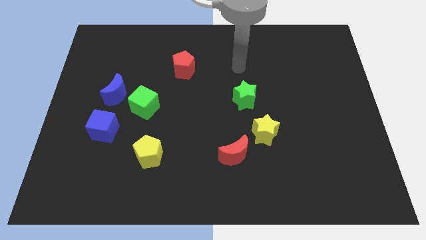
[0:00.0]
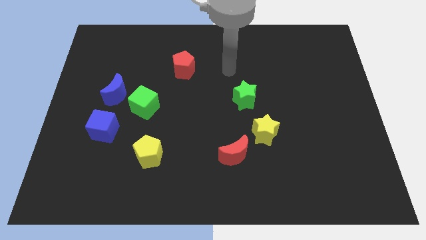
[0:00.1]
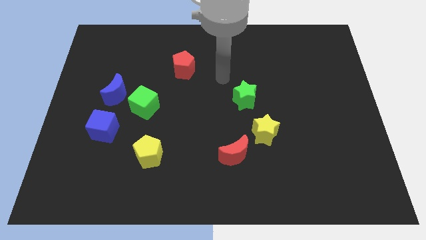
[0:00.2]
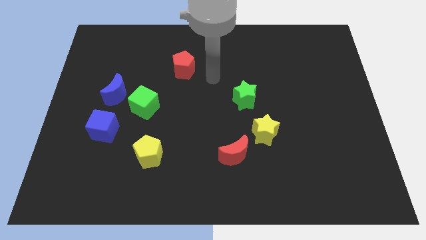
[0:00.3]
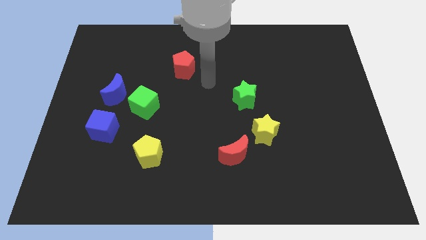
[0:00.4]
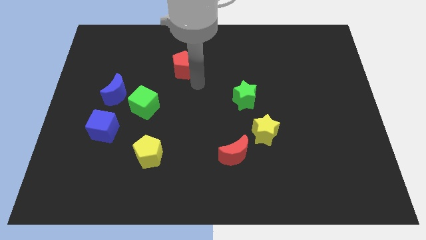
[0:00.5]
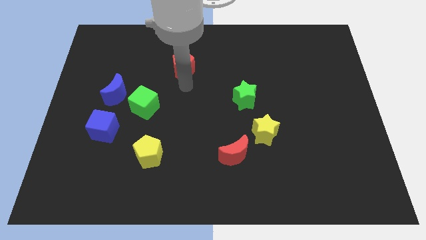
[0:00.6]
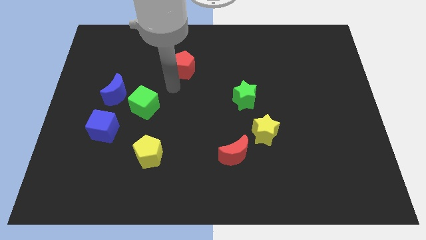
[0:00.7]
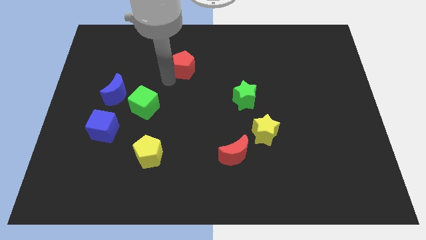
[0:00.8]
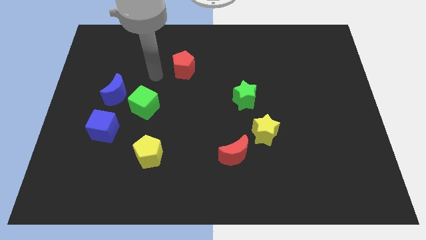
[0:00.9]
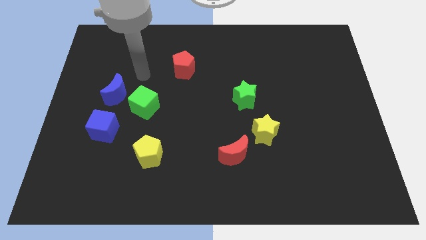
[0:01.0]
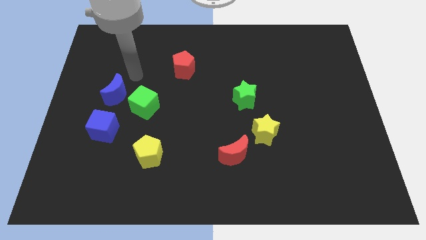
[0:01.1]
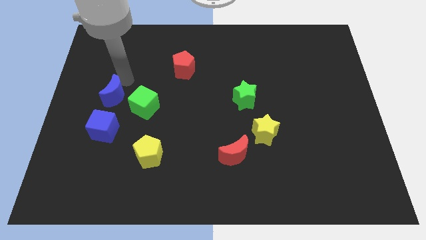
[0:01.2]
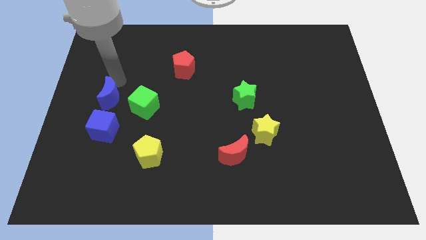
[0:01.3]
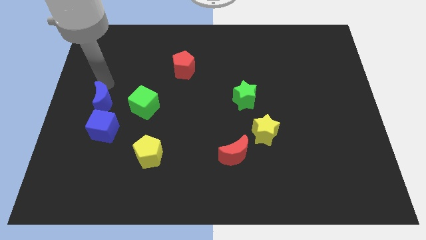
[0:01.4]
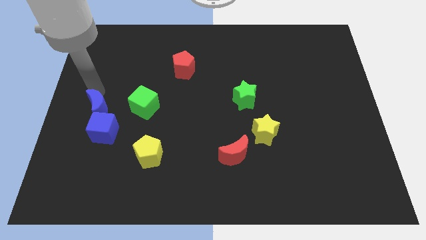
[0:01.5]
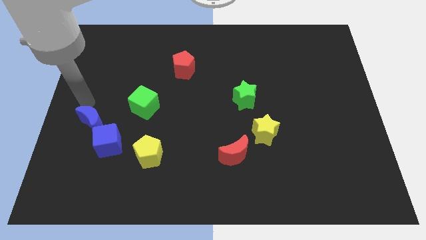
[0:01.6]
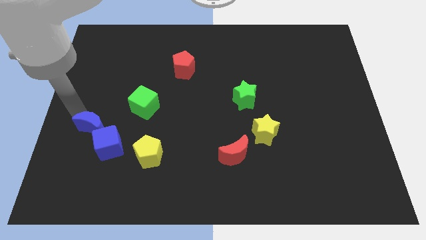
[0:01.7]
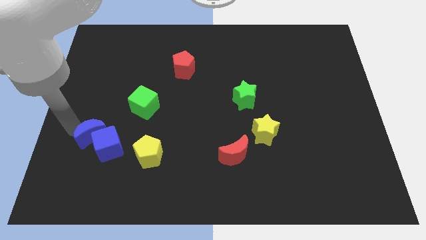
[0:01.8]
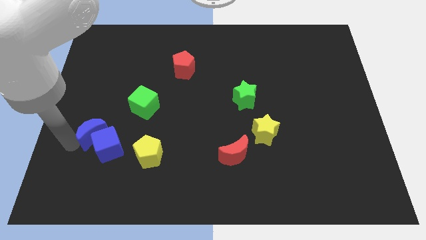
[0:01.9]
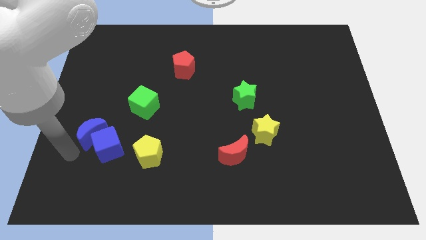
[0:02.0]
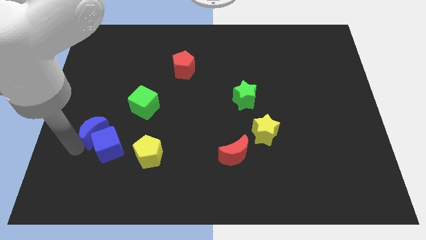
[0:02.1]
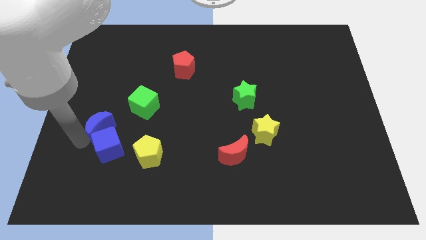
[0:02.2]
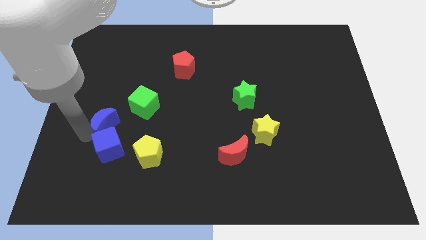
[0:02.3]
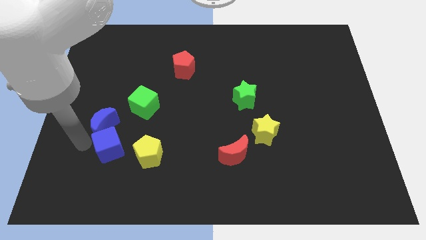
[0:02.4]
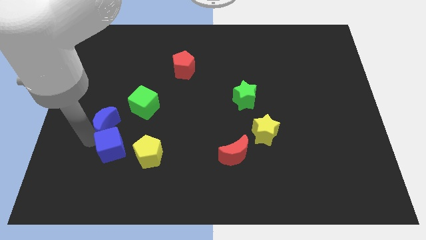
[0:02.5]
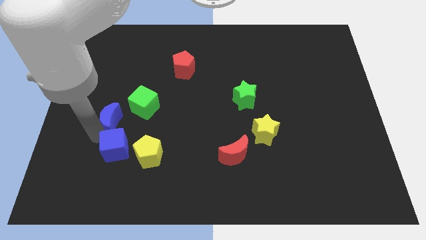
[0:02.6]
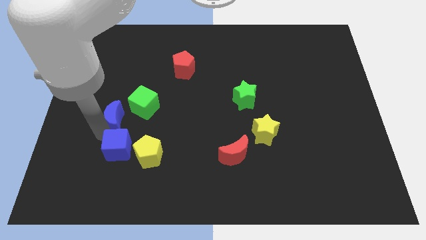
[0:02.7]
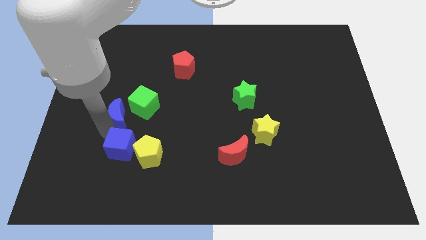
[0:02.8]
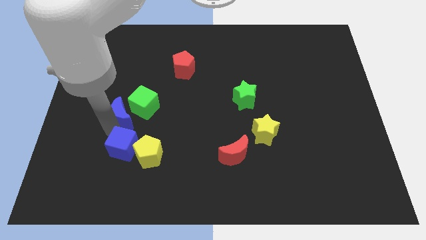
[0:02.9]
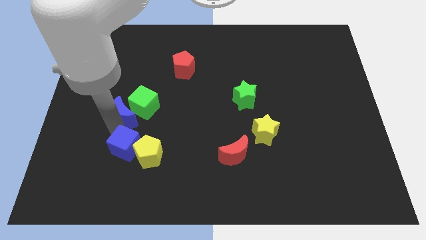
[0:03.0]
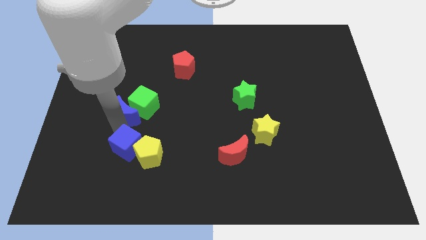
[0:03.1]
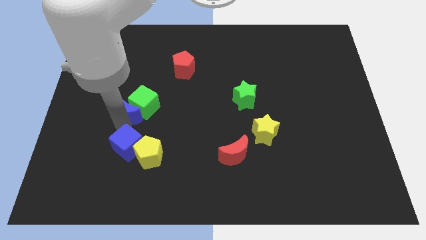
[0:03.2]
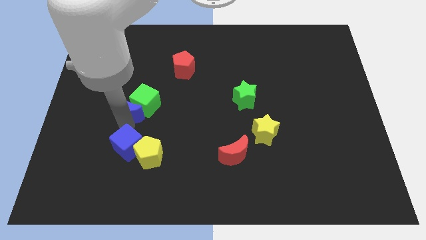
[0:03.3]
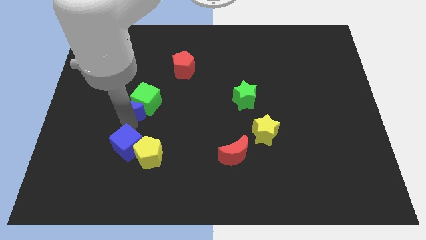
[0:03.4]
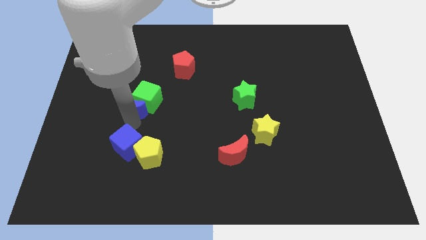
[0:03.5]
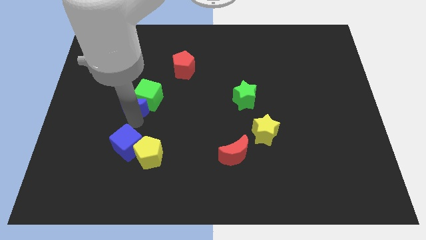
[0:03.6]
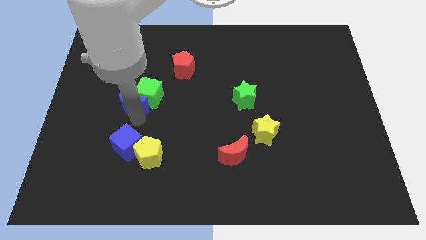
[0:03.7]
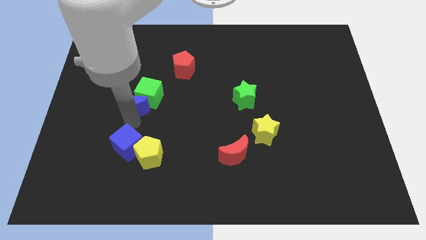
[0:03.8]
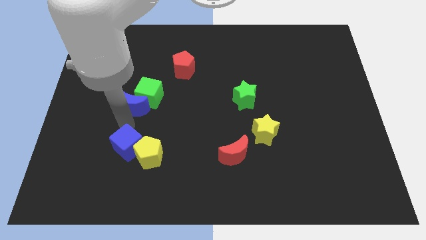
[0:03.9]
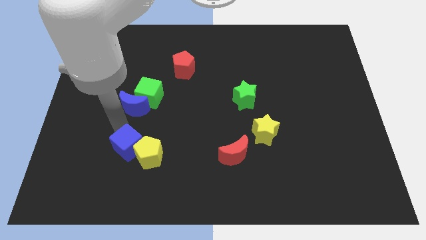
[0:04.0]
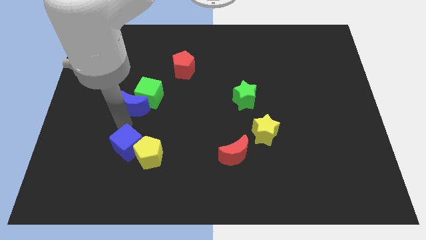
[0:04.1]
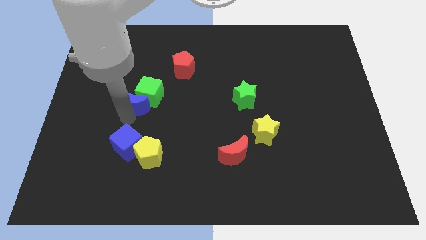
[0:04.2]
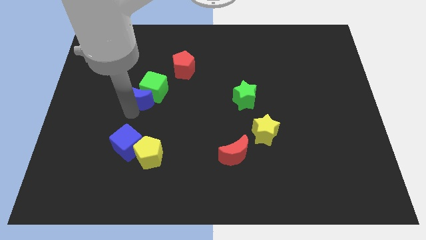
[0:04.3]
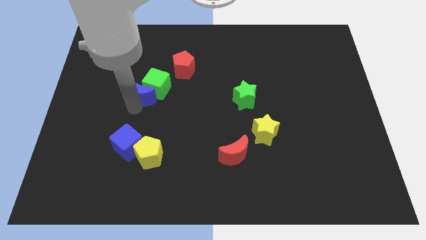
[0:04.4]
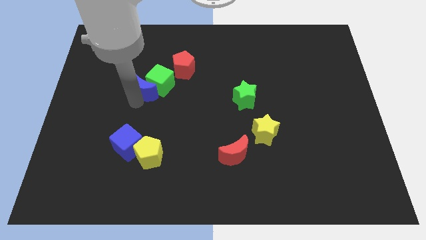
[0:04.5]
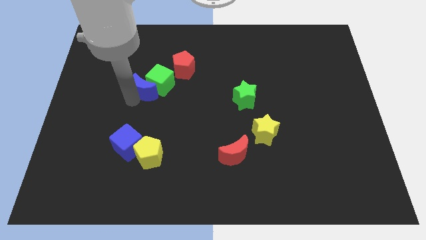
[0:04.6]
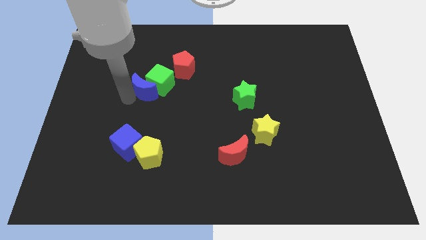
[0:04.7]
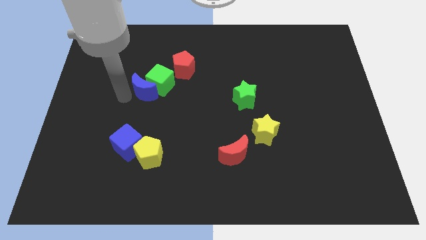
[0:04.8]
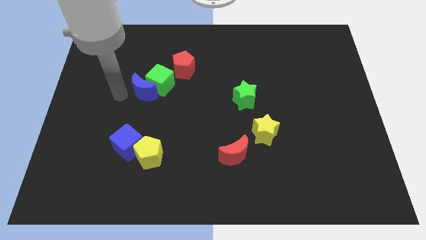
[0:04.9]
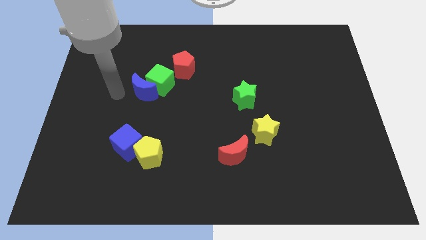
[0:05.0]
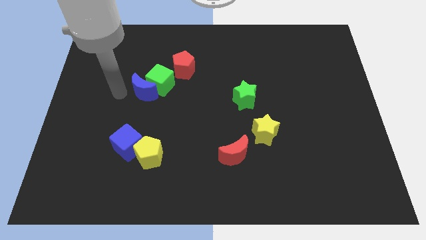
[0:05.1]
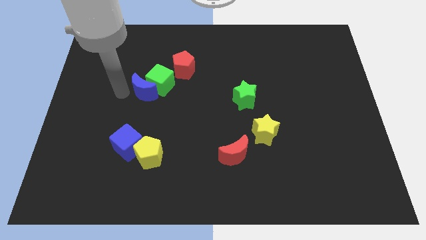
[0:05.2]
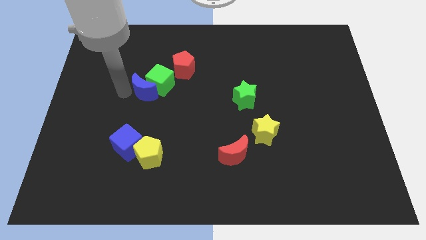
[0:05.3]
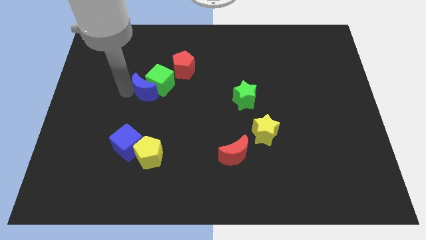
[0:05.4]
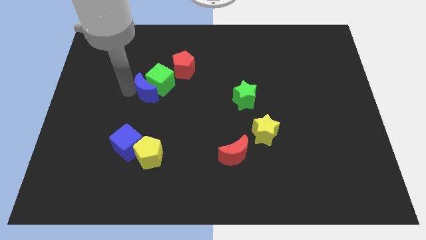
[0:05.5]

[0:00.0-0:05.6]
slide the blue moon somewhat to the right

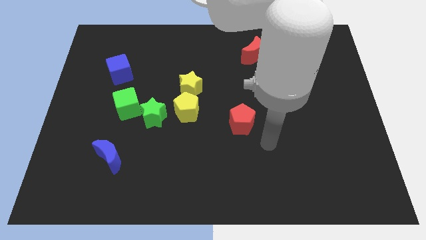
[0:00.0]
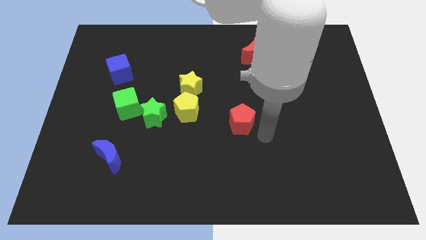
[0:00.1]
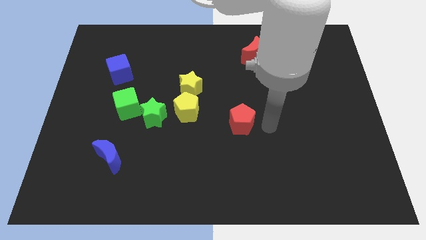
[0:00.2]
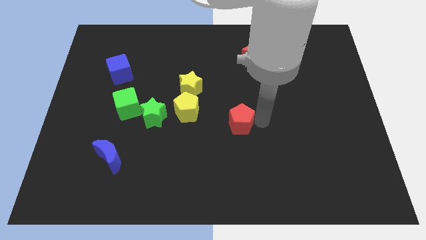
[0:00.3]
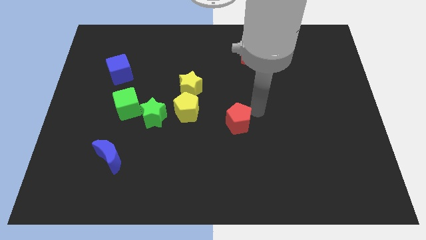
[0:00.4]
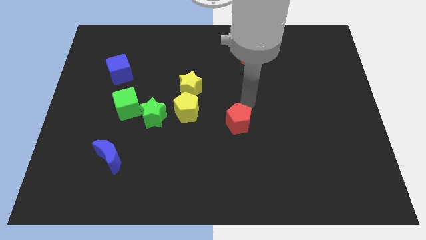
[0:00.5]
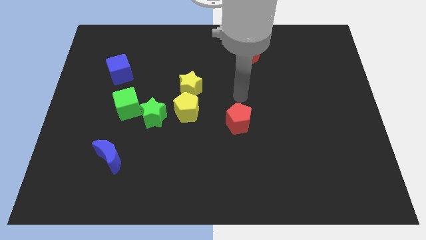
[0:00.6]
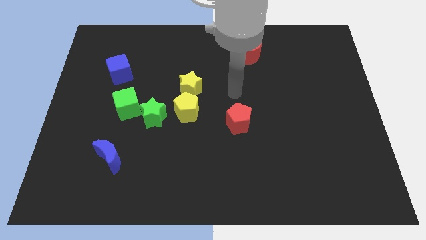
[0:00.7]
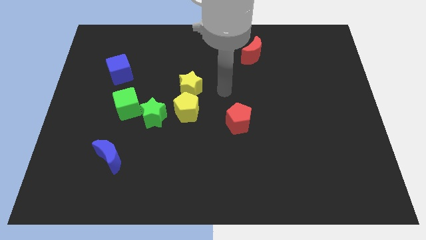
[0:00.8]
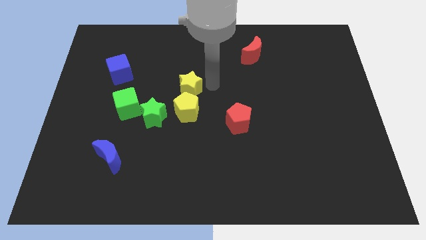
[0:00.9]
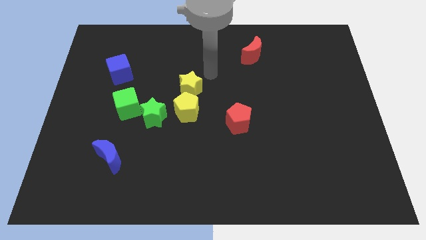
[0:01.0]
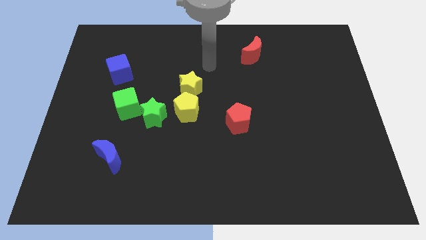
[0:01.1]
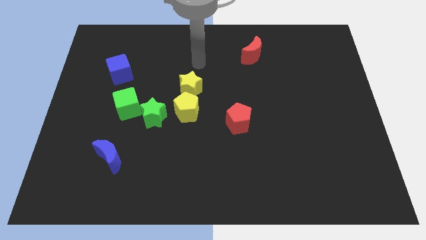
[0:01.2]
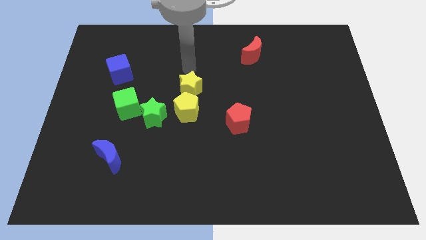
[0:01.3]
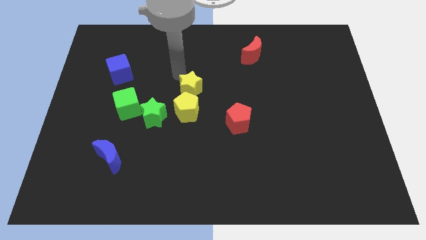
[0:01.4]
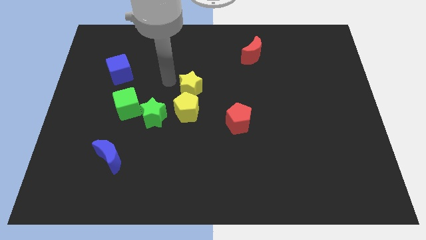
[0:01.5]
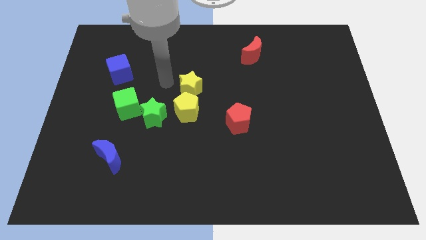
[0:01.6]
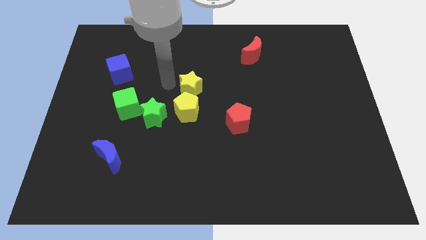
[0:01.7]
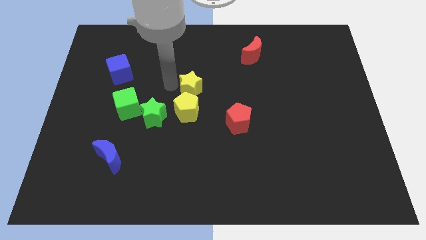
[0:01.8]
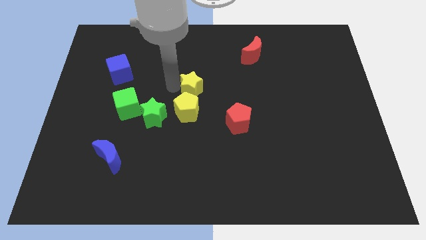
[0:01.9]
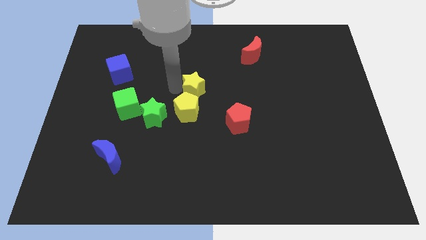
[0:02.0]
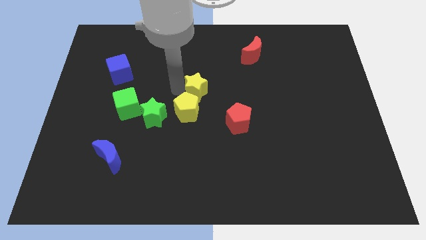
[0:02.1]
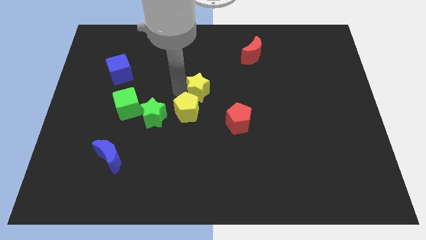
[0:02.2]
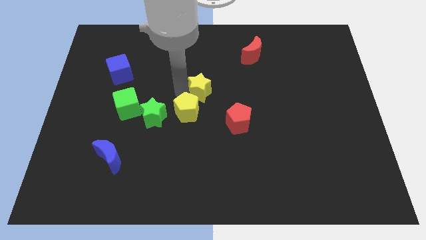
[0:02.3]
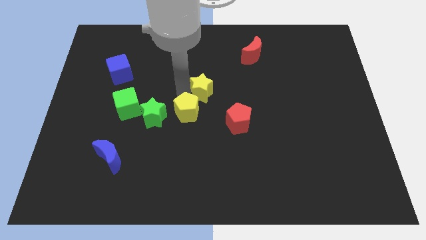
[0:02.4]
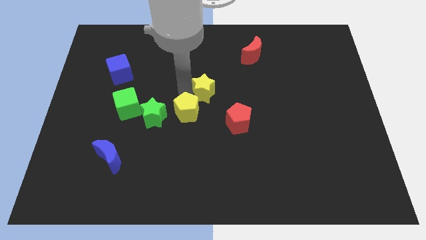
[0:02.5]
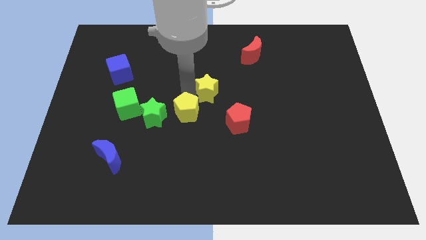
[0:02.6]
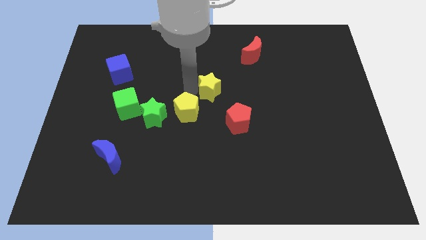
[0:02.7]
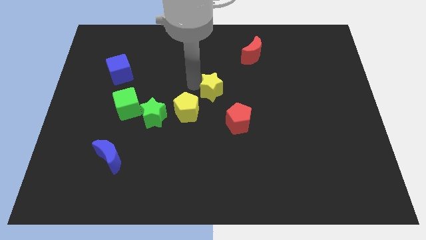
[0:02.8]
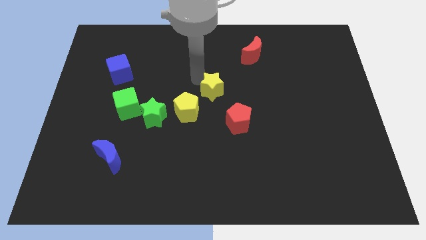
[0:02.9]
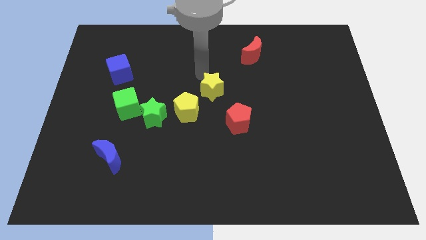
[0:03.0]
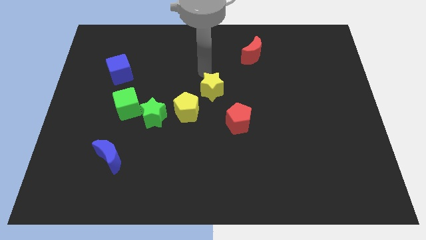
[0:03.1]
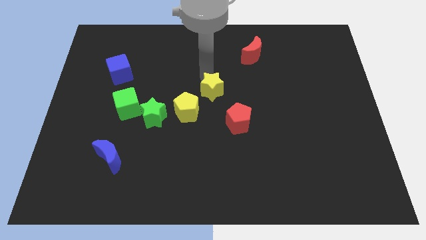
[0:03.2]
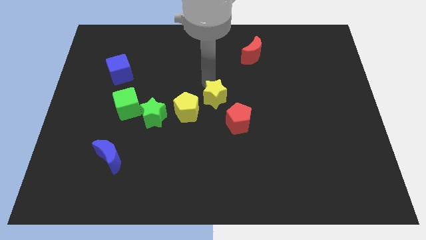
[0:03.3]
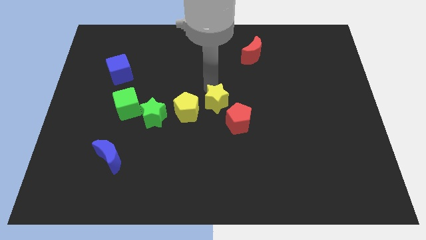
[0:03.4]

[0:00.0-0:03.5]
slightly move the yellow star downwards and right diagonally
